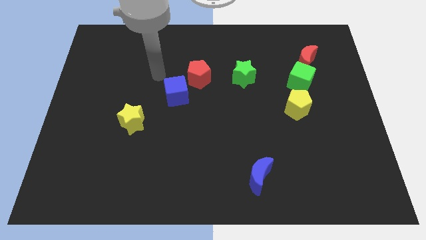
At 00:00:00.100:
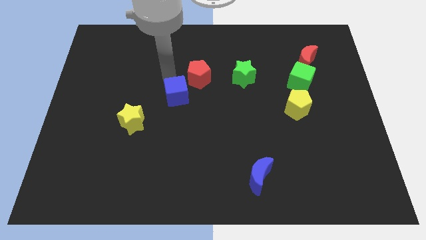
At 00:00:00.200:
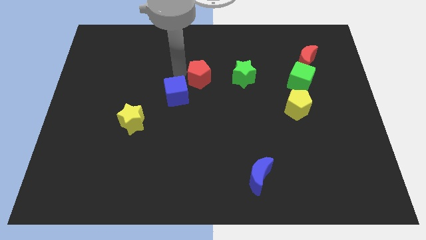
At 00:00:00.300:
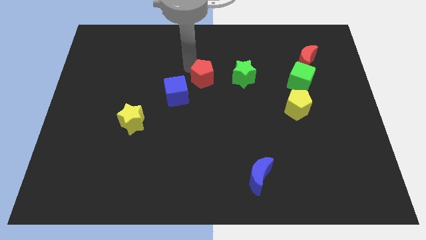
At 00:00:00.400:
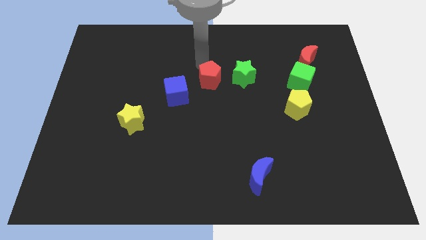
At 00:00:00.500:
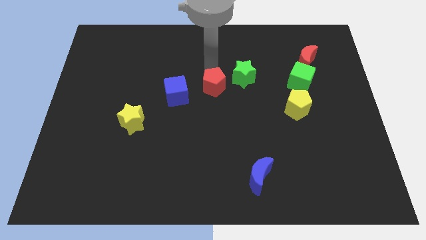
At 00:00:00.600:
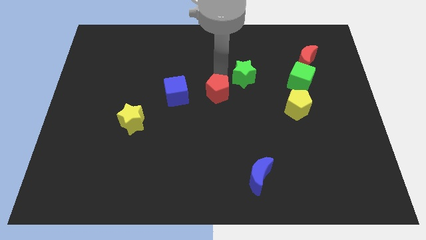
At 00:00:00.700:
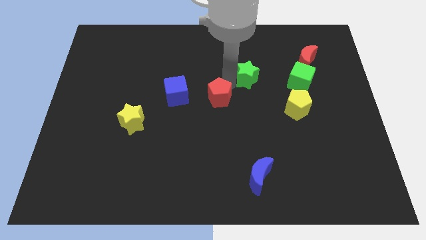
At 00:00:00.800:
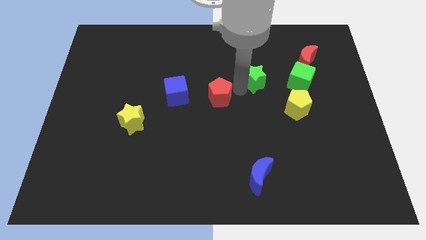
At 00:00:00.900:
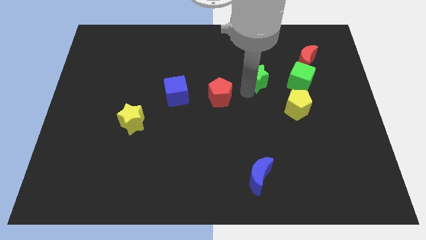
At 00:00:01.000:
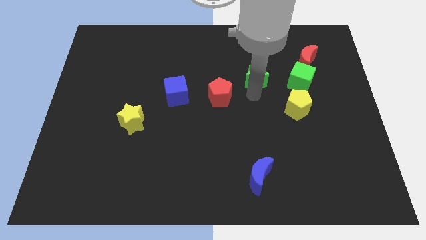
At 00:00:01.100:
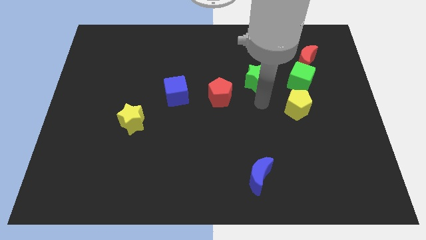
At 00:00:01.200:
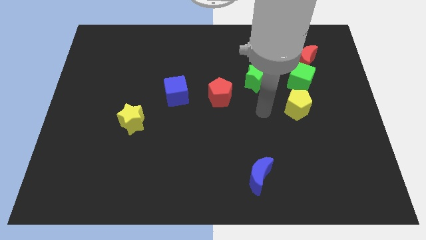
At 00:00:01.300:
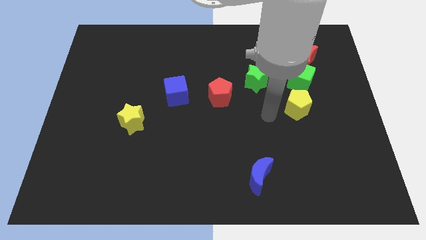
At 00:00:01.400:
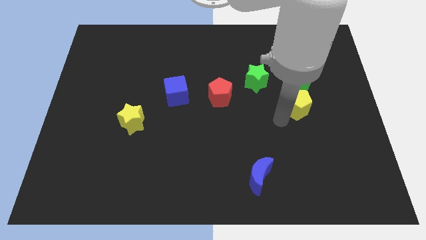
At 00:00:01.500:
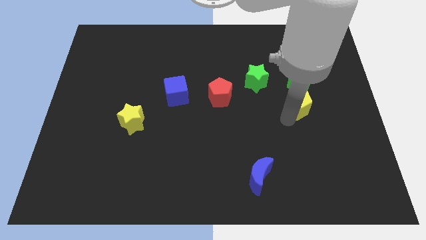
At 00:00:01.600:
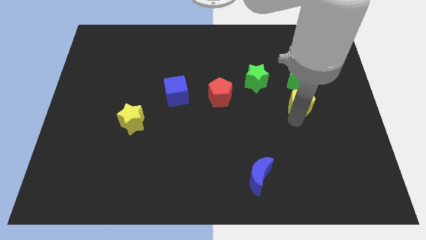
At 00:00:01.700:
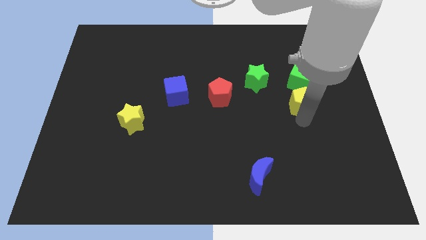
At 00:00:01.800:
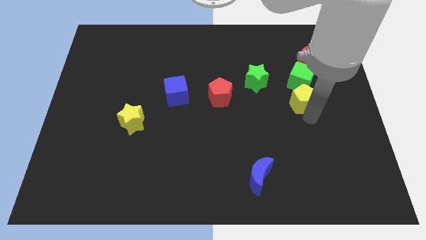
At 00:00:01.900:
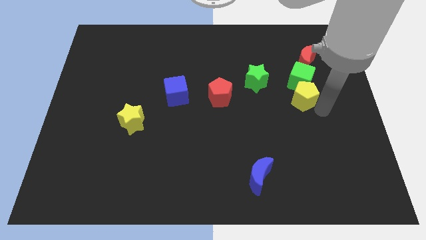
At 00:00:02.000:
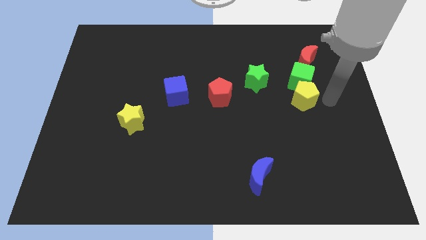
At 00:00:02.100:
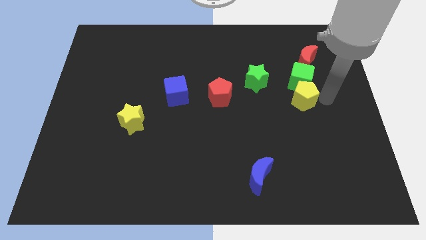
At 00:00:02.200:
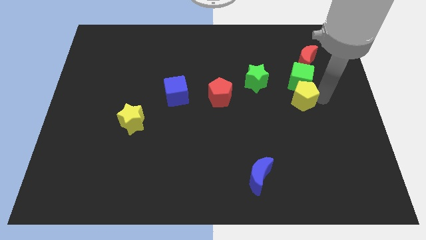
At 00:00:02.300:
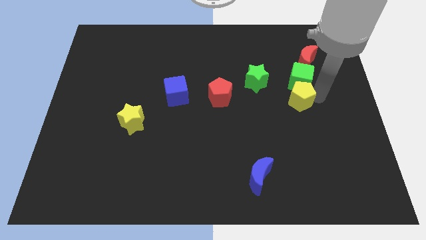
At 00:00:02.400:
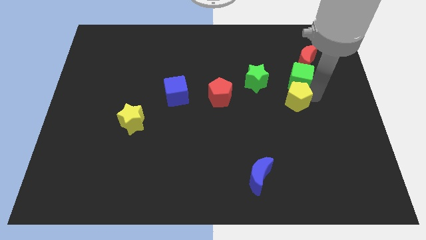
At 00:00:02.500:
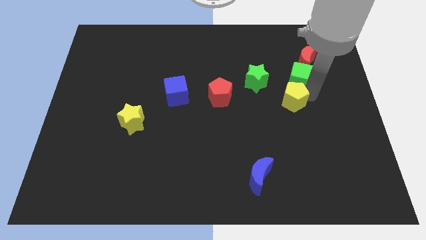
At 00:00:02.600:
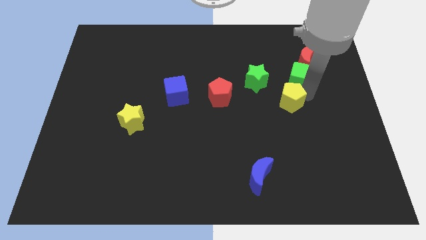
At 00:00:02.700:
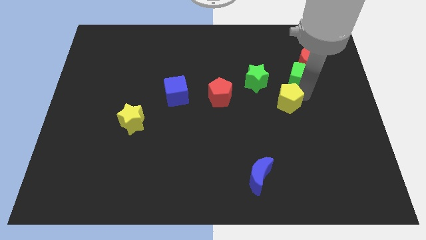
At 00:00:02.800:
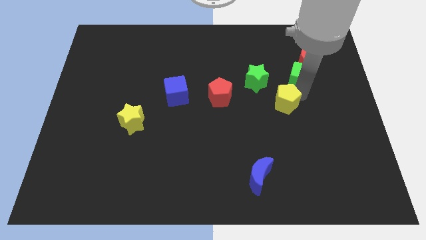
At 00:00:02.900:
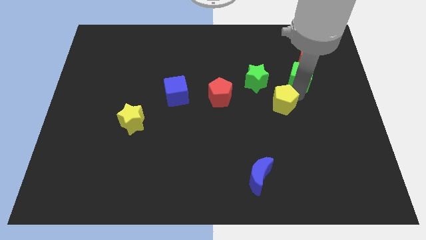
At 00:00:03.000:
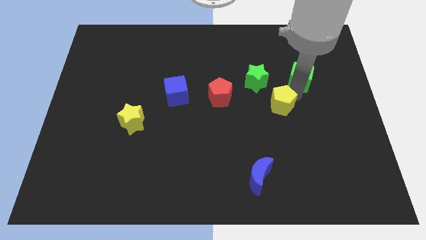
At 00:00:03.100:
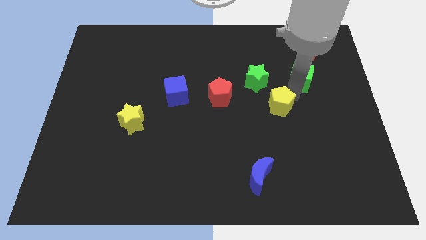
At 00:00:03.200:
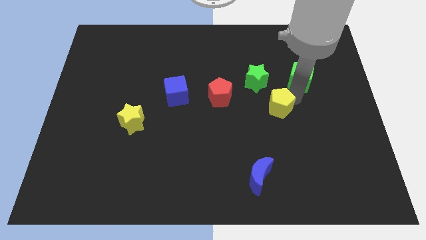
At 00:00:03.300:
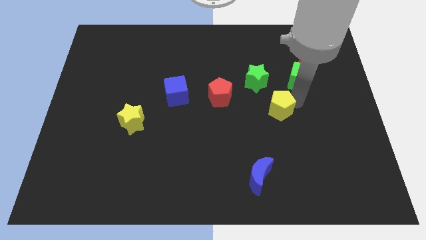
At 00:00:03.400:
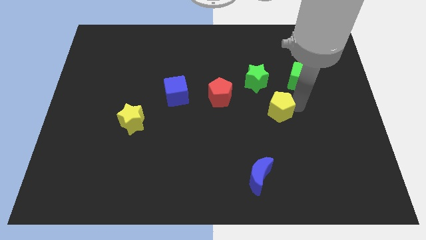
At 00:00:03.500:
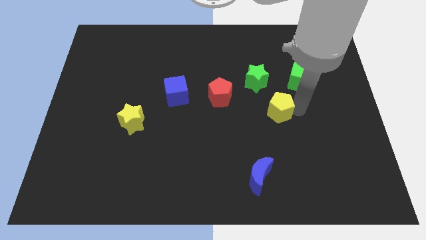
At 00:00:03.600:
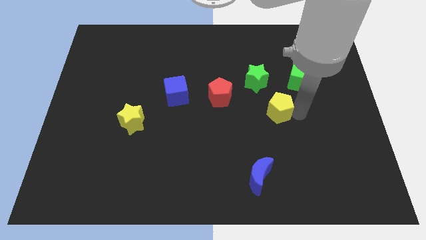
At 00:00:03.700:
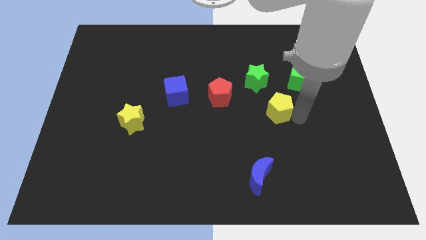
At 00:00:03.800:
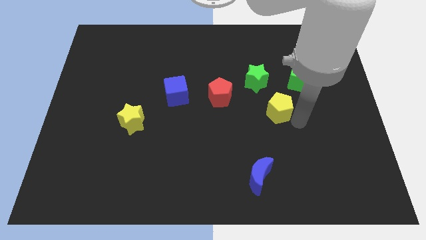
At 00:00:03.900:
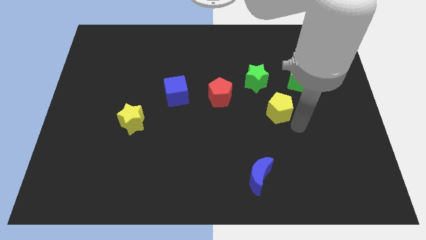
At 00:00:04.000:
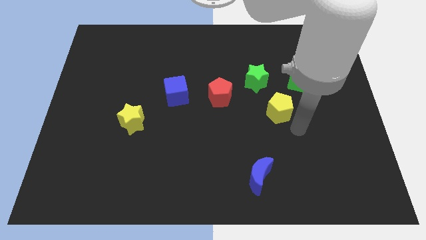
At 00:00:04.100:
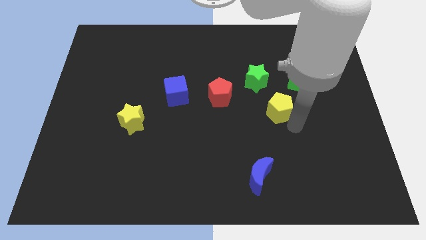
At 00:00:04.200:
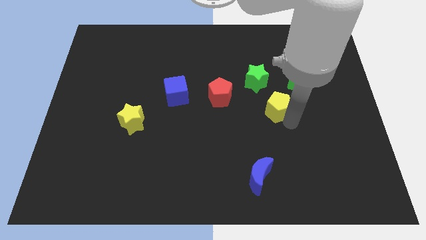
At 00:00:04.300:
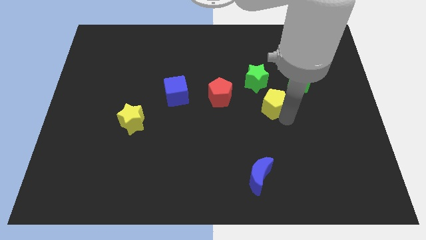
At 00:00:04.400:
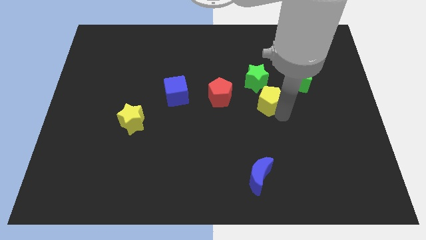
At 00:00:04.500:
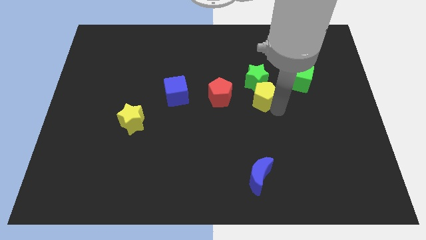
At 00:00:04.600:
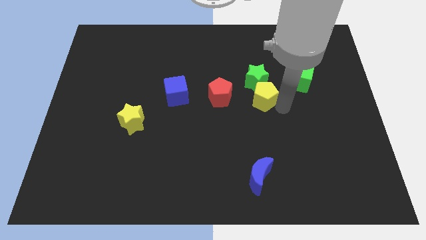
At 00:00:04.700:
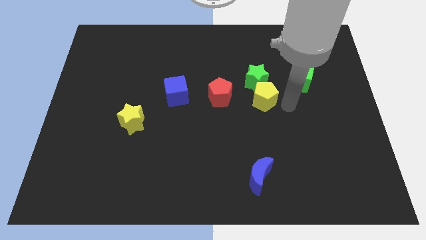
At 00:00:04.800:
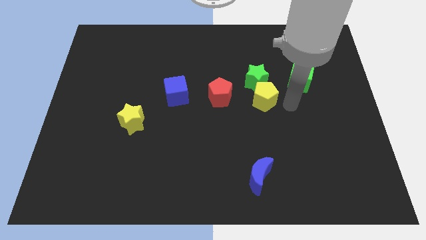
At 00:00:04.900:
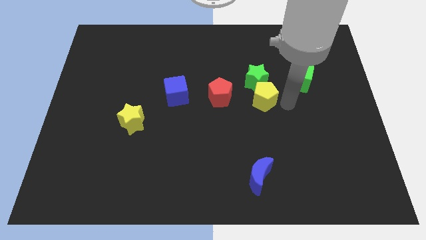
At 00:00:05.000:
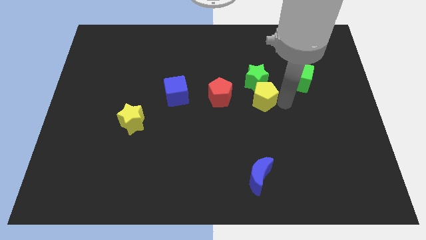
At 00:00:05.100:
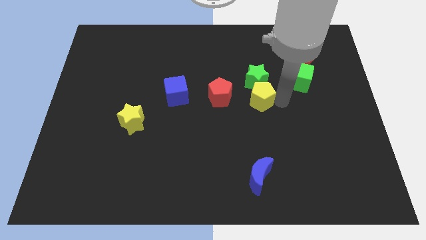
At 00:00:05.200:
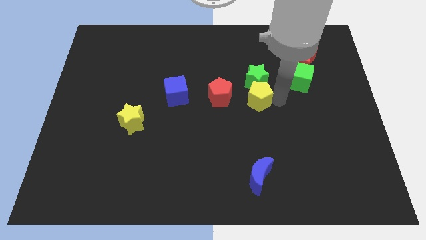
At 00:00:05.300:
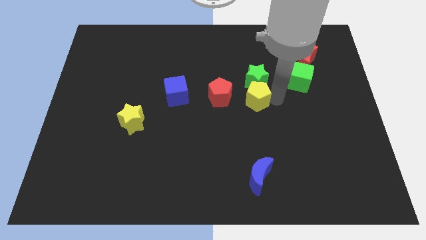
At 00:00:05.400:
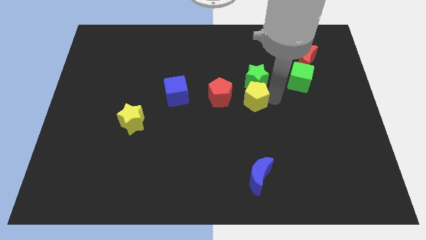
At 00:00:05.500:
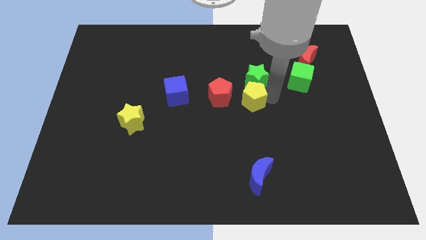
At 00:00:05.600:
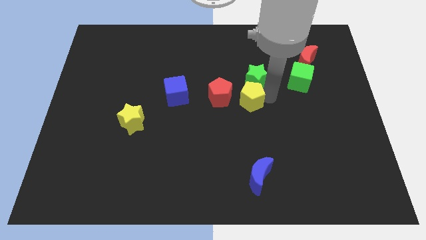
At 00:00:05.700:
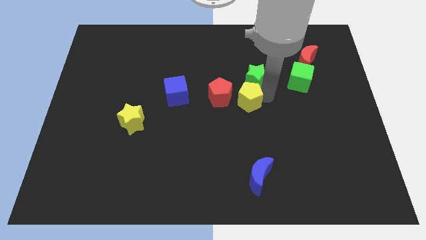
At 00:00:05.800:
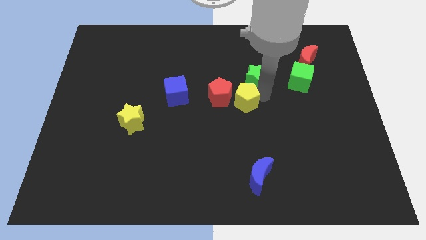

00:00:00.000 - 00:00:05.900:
push the yellow pentagon close to the red pentagon

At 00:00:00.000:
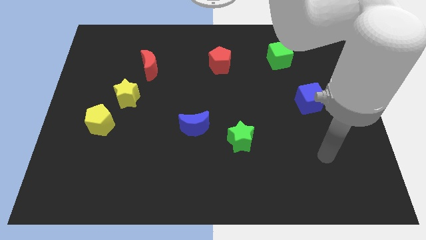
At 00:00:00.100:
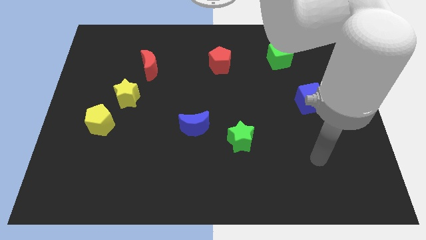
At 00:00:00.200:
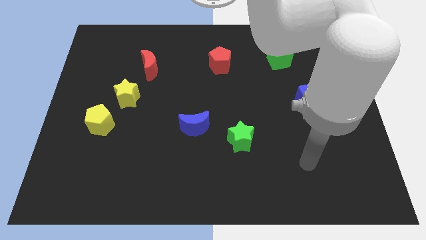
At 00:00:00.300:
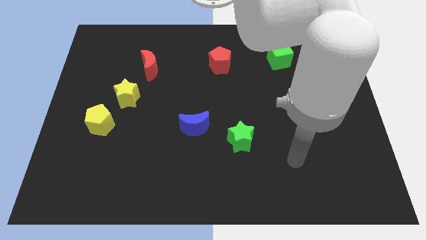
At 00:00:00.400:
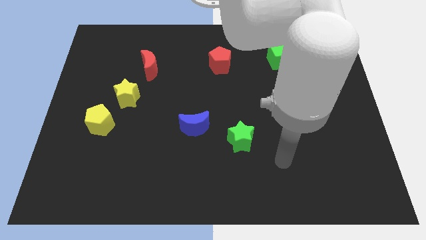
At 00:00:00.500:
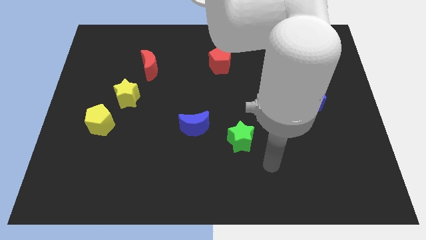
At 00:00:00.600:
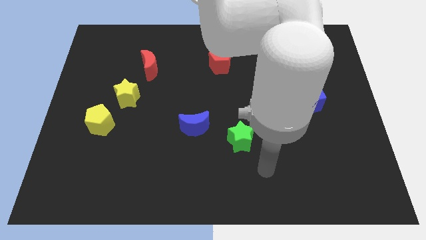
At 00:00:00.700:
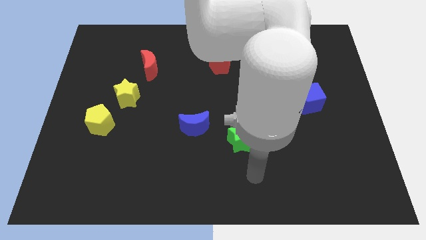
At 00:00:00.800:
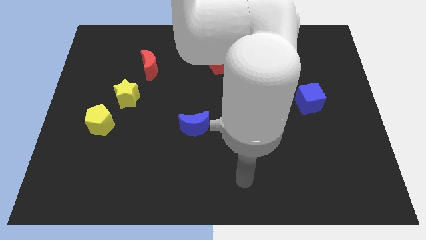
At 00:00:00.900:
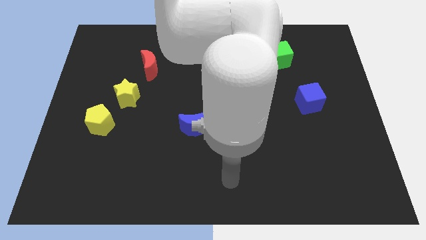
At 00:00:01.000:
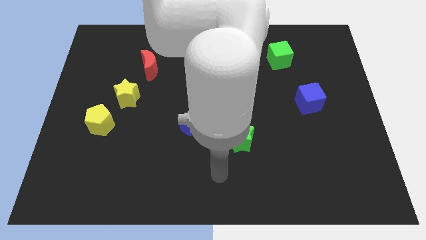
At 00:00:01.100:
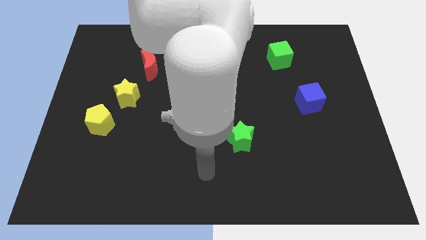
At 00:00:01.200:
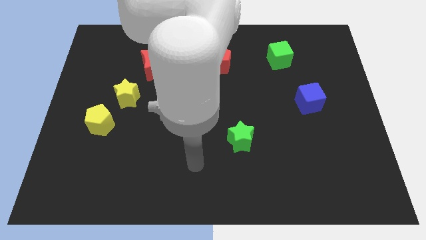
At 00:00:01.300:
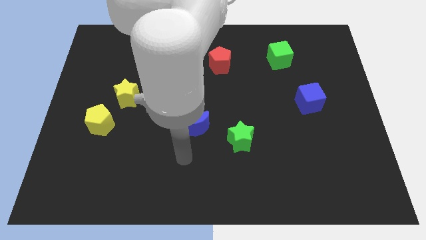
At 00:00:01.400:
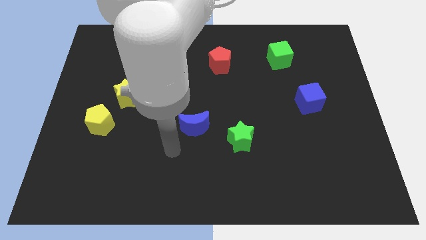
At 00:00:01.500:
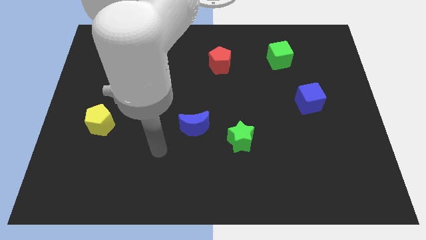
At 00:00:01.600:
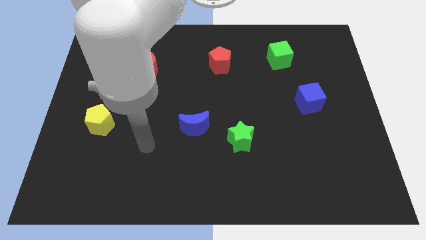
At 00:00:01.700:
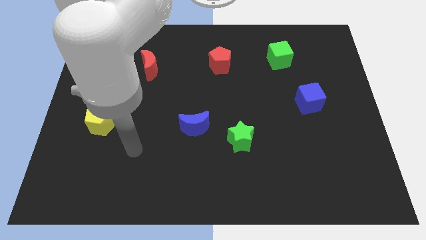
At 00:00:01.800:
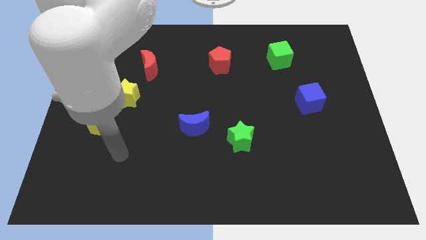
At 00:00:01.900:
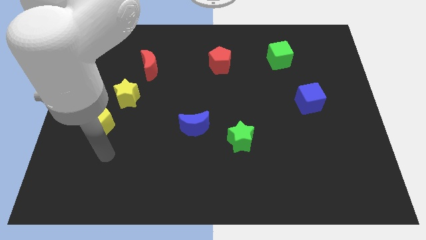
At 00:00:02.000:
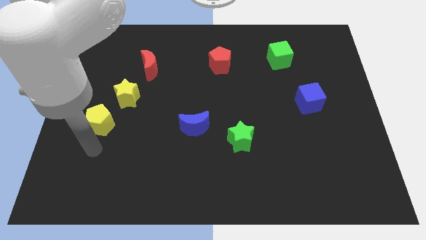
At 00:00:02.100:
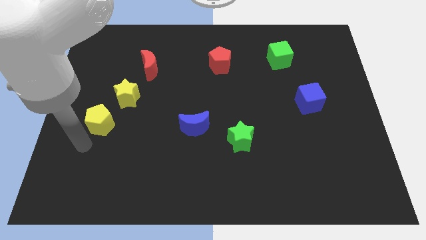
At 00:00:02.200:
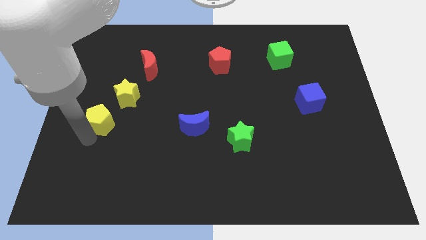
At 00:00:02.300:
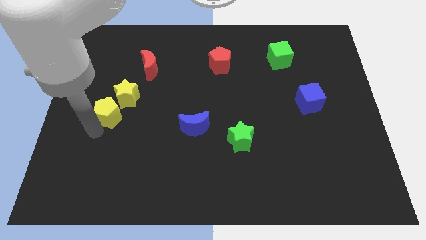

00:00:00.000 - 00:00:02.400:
push the yellow pentagon next to the yellow star
